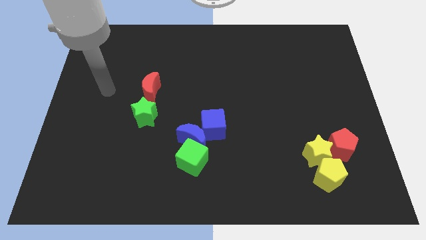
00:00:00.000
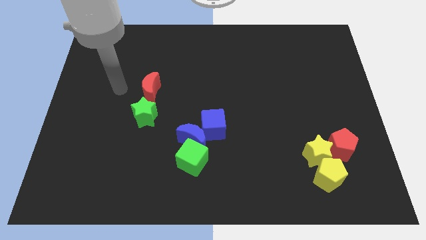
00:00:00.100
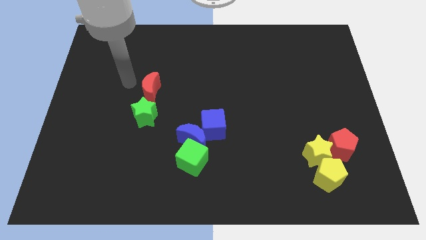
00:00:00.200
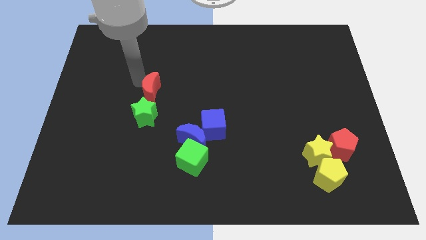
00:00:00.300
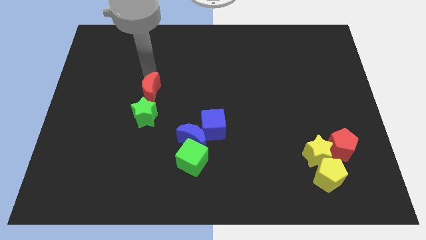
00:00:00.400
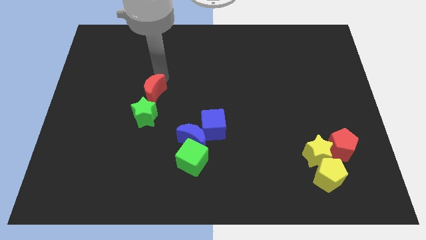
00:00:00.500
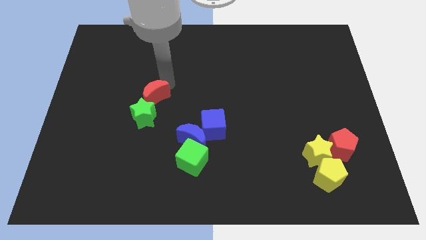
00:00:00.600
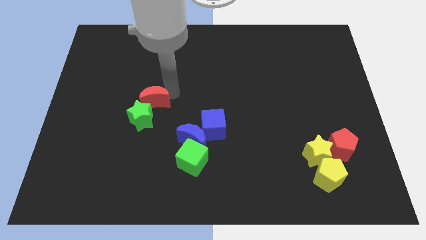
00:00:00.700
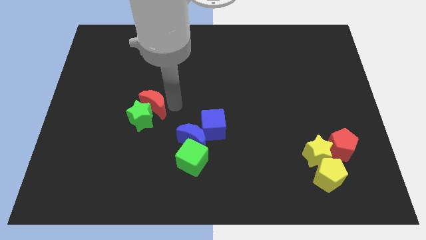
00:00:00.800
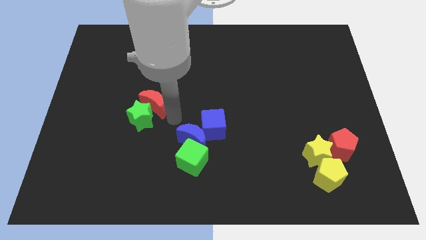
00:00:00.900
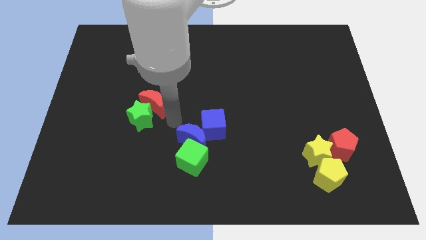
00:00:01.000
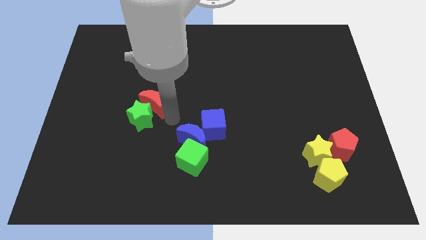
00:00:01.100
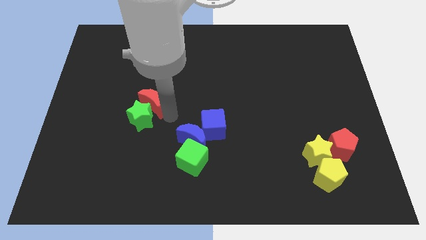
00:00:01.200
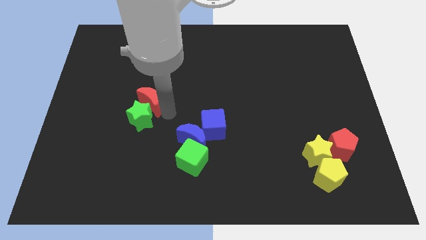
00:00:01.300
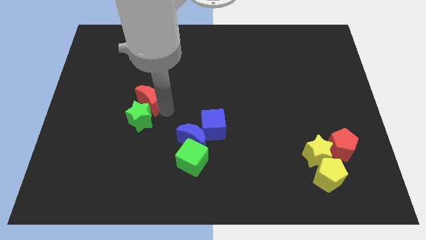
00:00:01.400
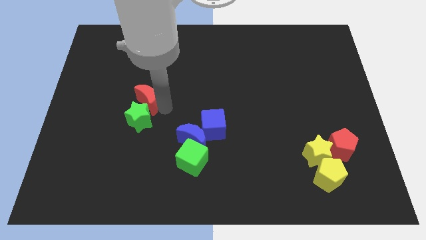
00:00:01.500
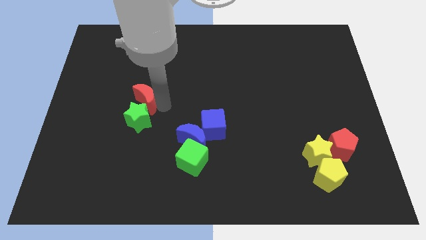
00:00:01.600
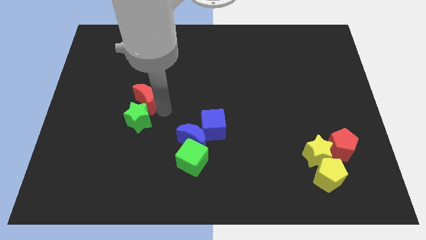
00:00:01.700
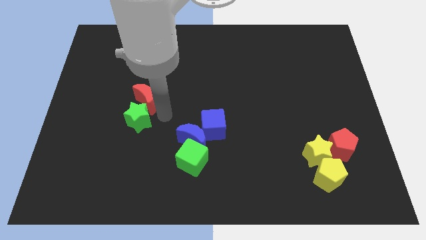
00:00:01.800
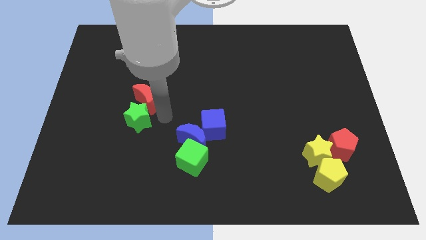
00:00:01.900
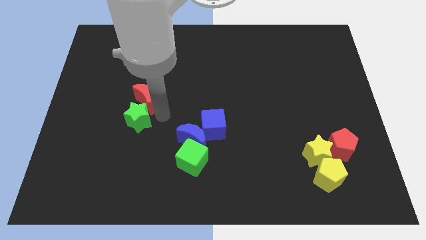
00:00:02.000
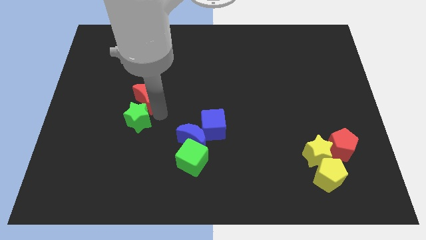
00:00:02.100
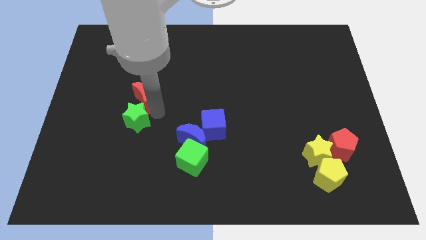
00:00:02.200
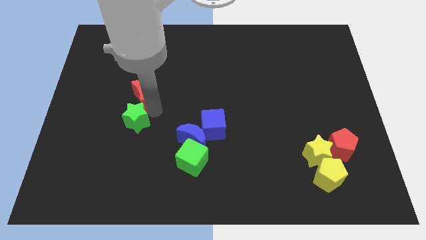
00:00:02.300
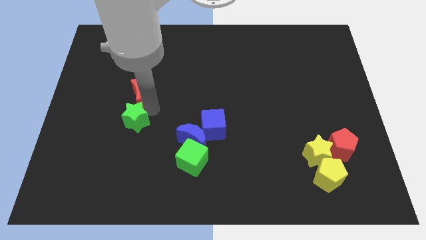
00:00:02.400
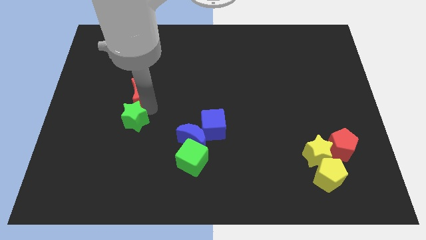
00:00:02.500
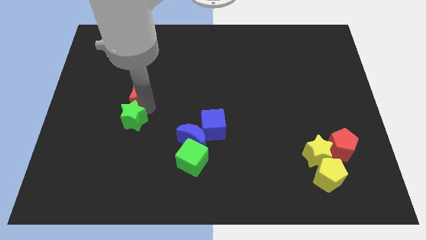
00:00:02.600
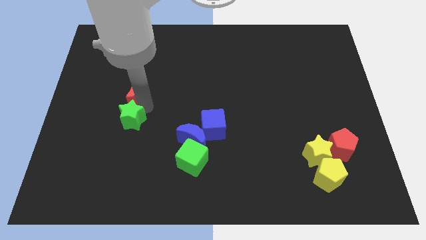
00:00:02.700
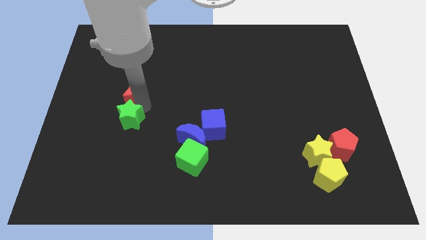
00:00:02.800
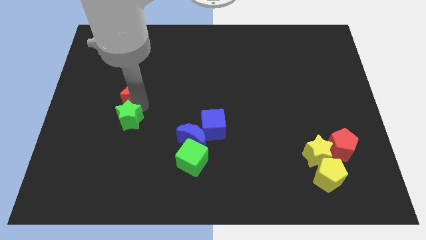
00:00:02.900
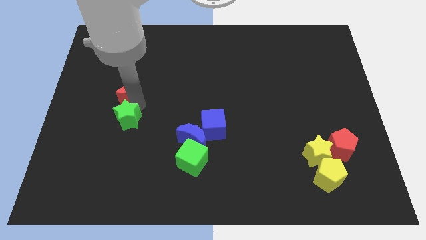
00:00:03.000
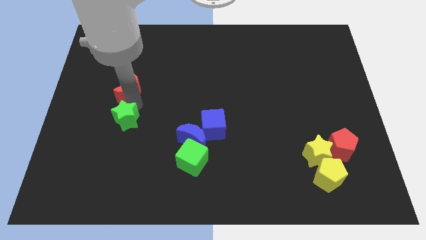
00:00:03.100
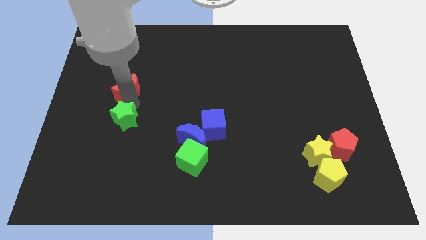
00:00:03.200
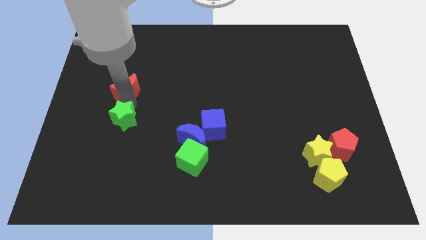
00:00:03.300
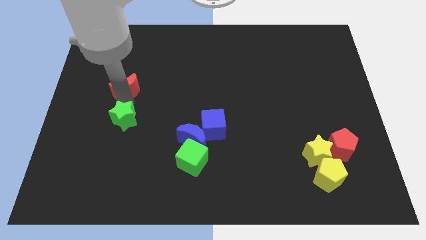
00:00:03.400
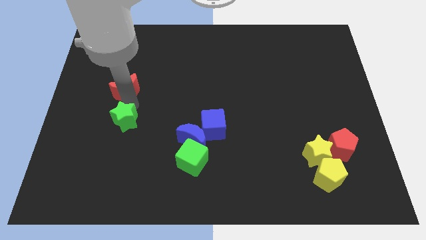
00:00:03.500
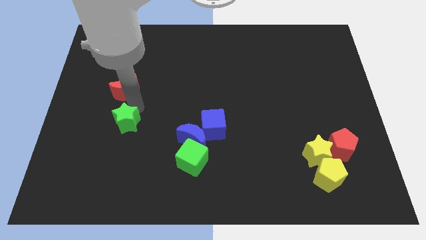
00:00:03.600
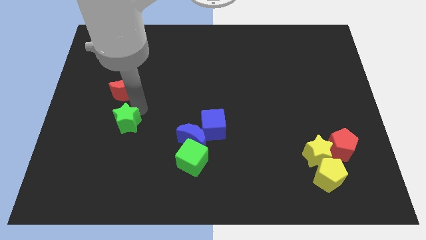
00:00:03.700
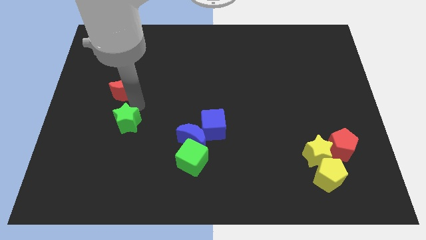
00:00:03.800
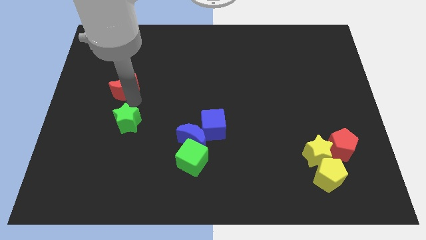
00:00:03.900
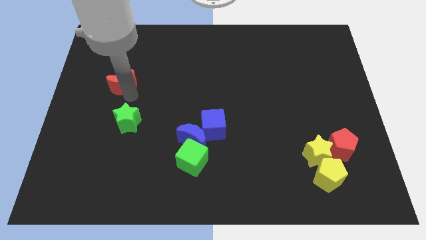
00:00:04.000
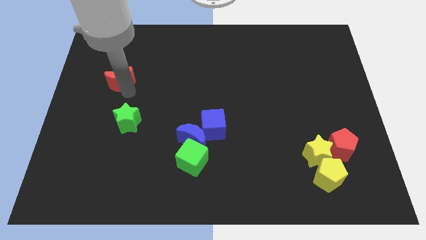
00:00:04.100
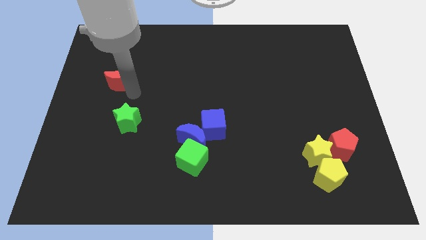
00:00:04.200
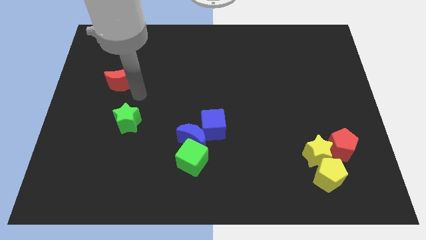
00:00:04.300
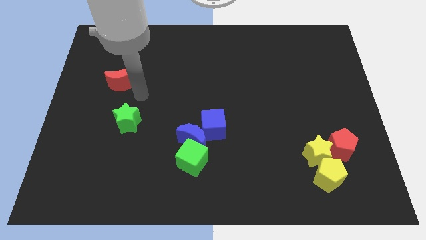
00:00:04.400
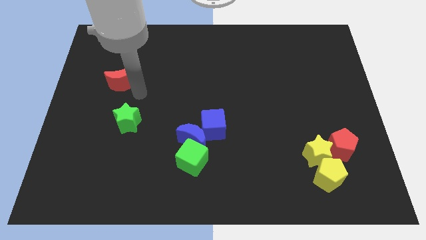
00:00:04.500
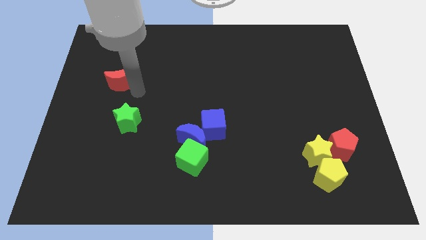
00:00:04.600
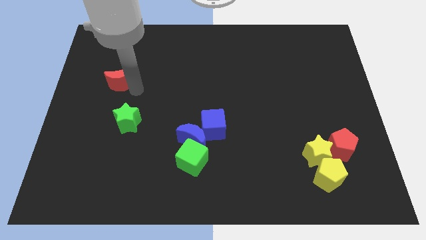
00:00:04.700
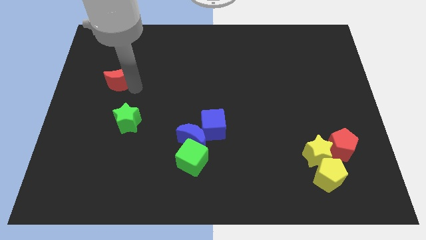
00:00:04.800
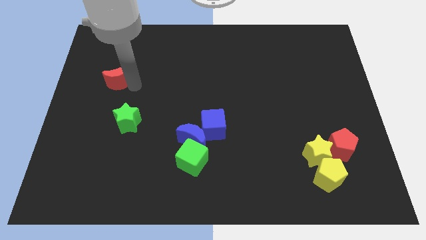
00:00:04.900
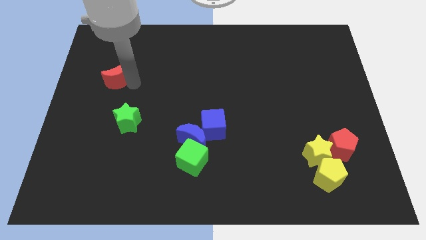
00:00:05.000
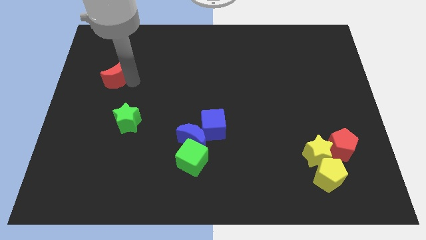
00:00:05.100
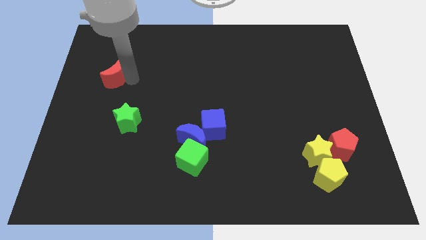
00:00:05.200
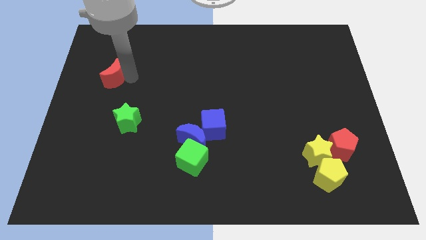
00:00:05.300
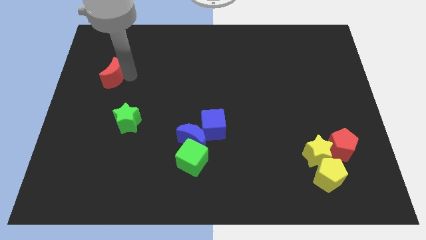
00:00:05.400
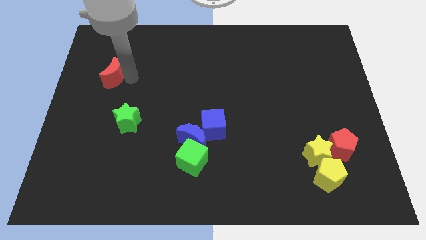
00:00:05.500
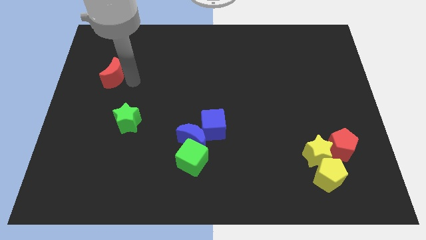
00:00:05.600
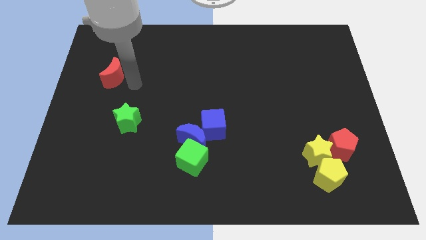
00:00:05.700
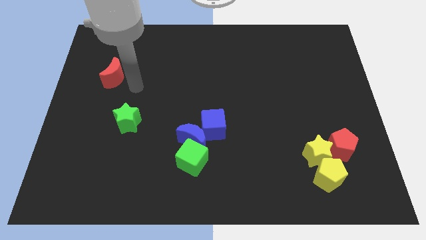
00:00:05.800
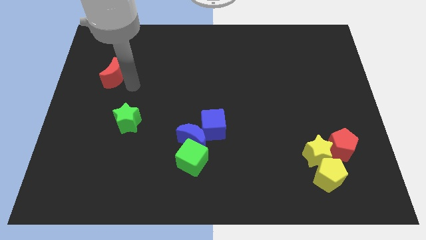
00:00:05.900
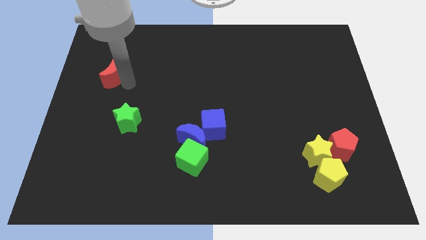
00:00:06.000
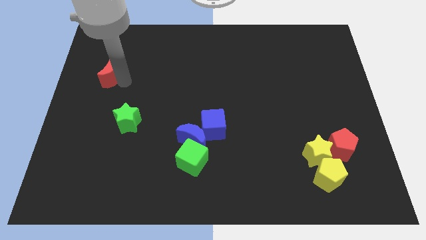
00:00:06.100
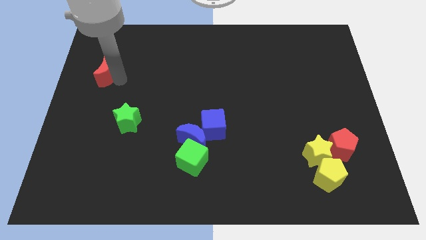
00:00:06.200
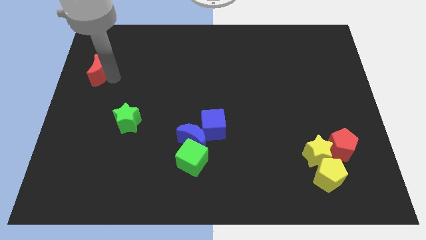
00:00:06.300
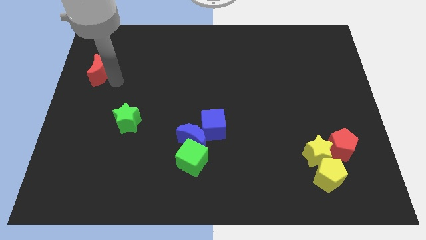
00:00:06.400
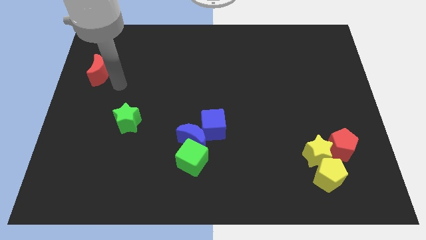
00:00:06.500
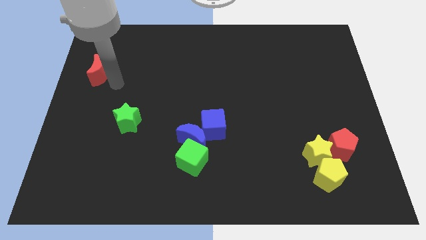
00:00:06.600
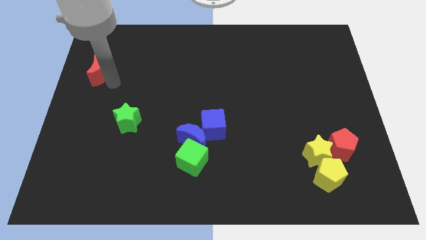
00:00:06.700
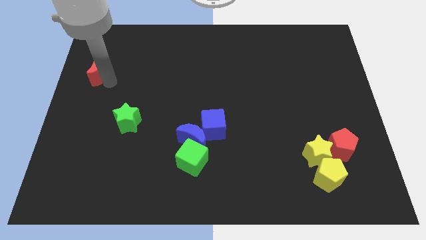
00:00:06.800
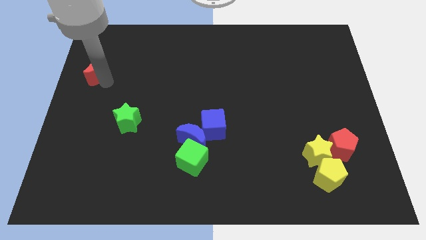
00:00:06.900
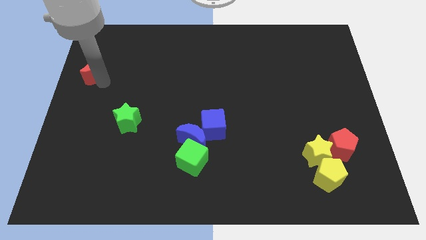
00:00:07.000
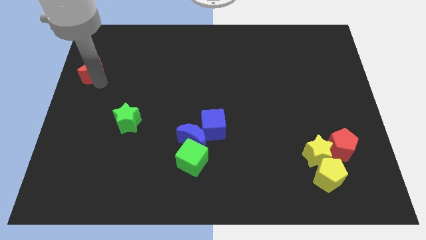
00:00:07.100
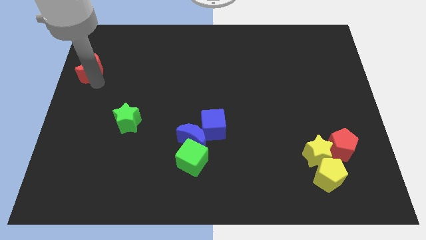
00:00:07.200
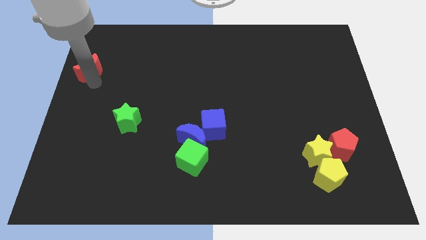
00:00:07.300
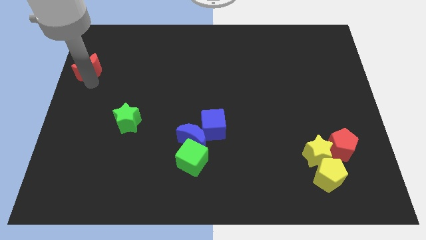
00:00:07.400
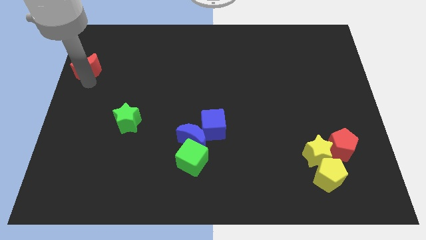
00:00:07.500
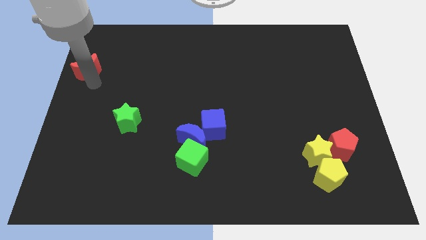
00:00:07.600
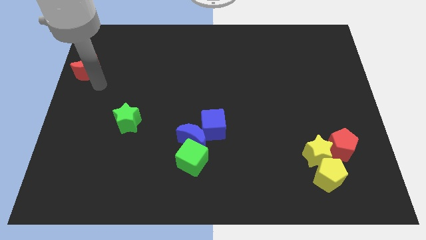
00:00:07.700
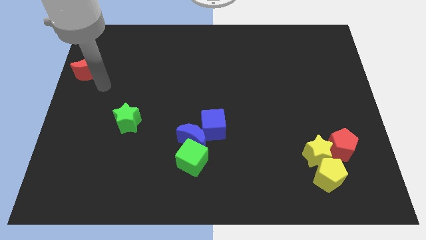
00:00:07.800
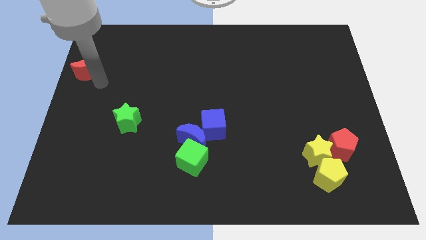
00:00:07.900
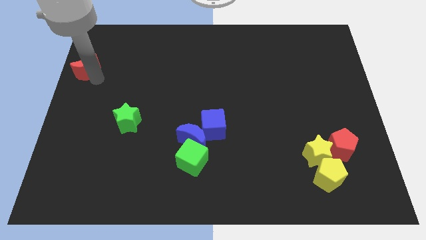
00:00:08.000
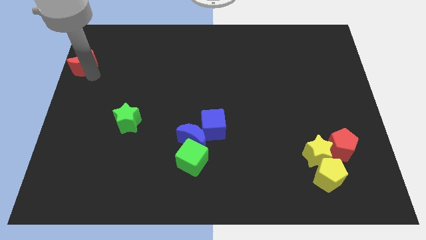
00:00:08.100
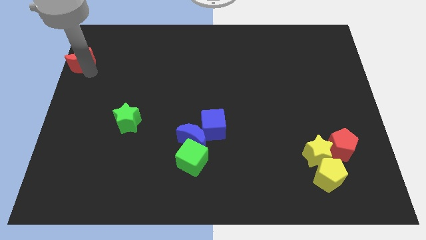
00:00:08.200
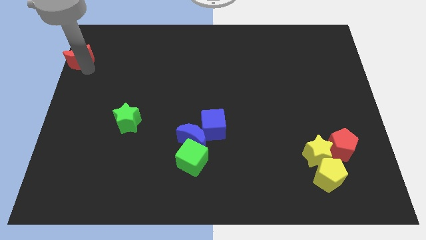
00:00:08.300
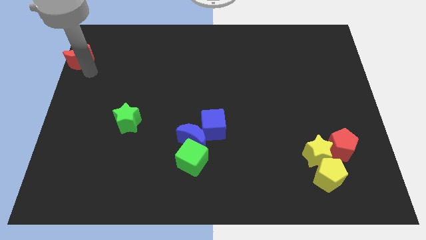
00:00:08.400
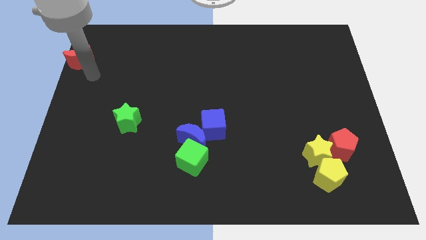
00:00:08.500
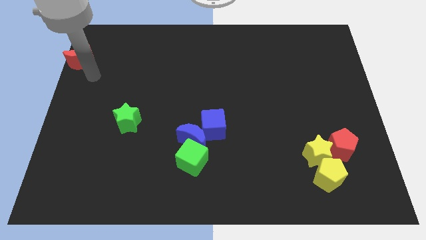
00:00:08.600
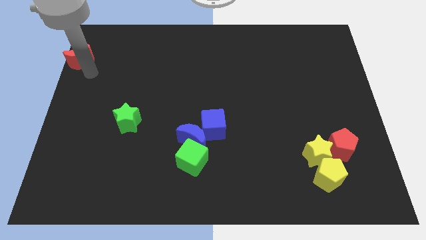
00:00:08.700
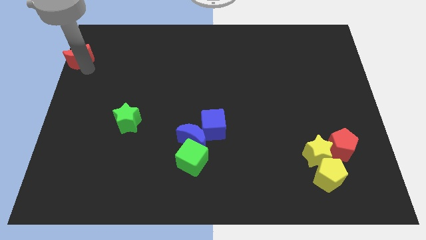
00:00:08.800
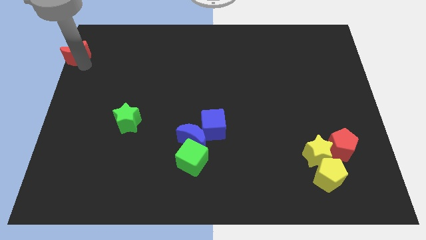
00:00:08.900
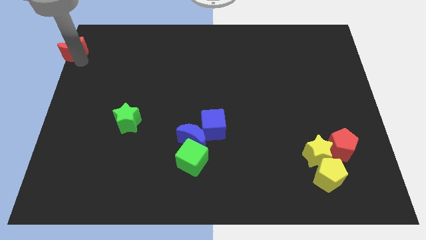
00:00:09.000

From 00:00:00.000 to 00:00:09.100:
slide the red moon to the top left of the board
